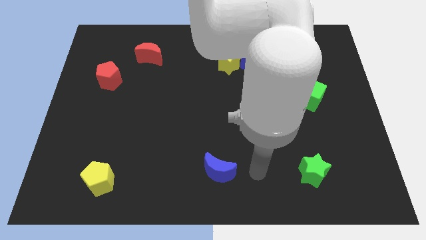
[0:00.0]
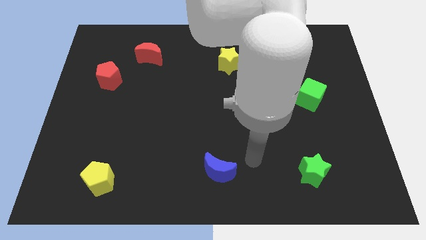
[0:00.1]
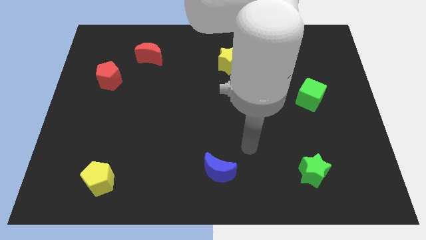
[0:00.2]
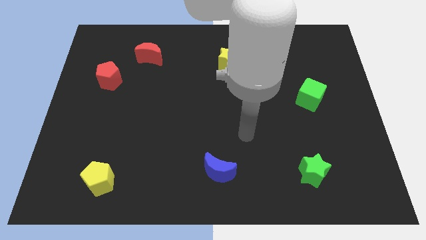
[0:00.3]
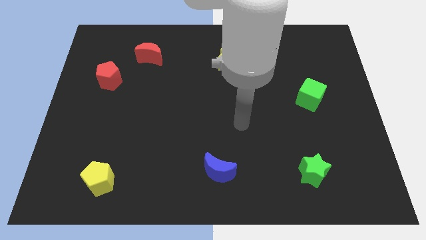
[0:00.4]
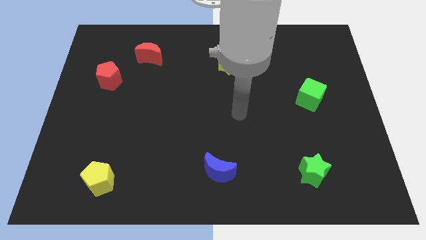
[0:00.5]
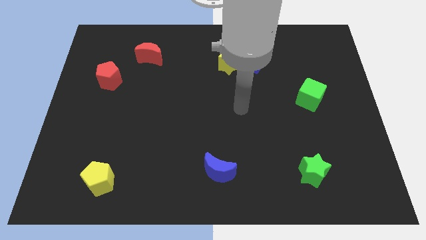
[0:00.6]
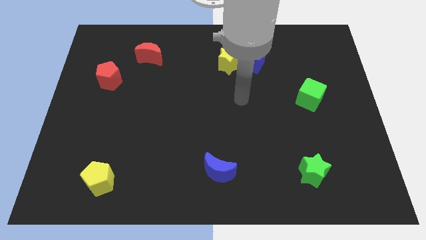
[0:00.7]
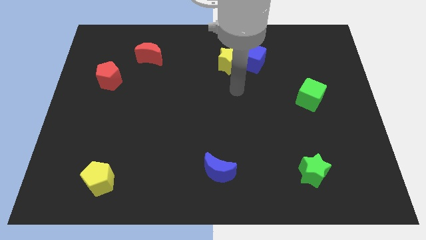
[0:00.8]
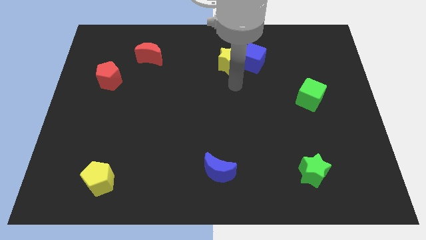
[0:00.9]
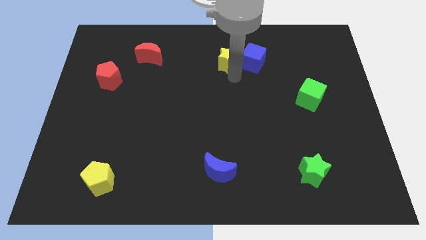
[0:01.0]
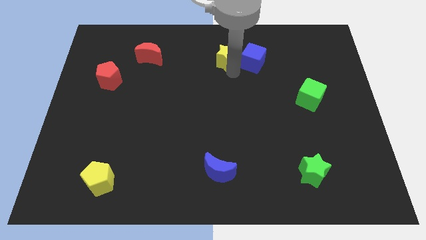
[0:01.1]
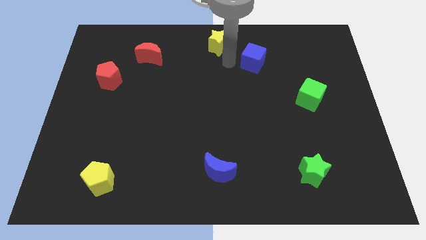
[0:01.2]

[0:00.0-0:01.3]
separate the blue cube from the yellow star

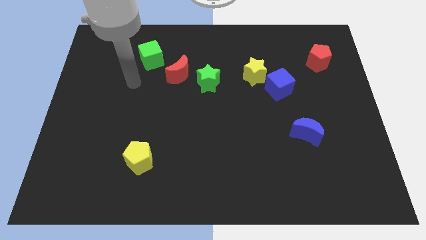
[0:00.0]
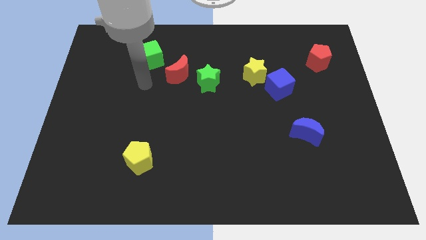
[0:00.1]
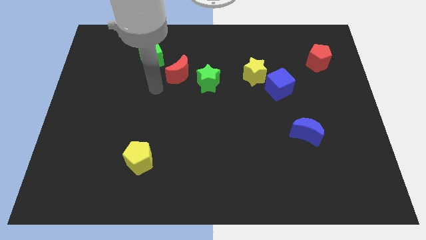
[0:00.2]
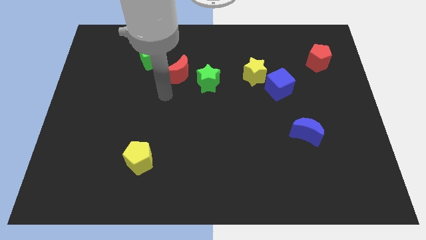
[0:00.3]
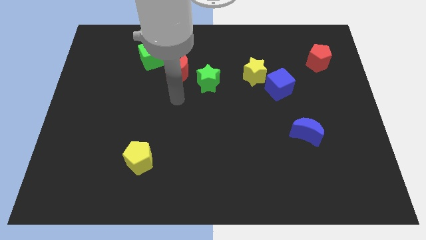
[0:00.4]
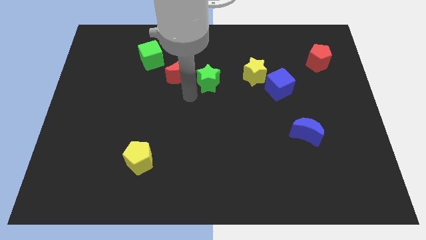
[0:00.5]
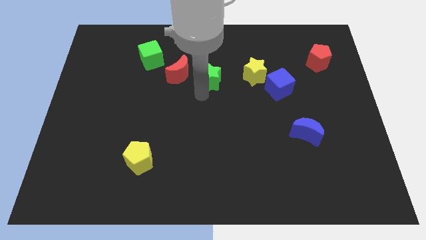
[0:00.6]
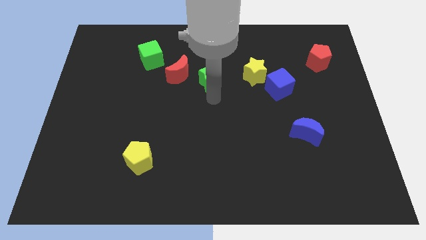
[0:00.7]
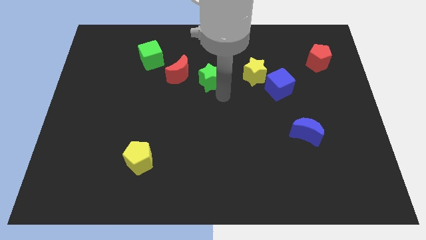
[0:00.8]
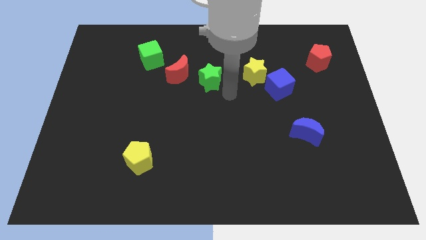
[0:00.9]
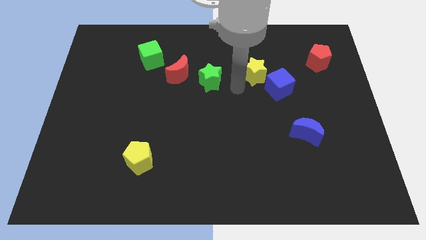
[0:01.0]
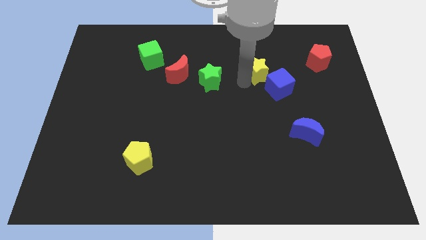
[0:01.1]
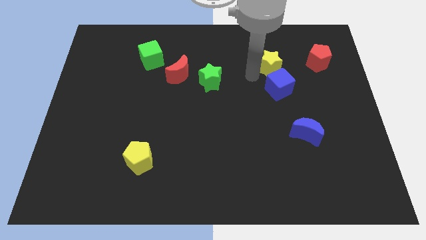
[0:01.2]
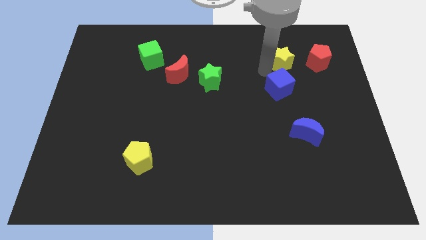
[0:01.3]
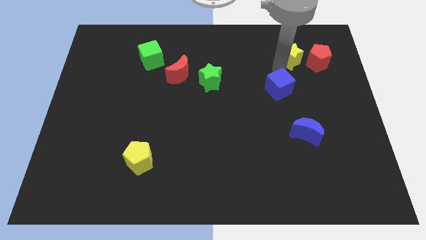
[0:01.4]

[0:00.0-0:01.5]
pull the blue cube apart from the yellow star

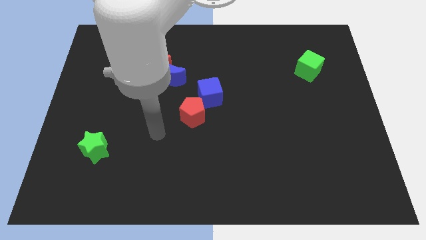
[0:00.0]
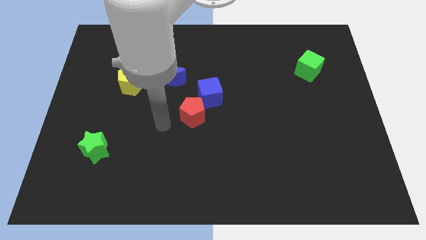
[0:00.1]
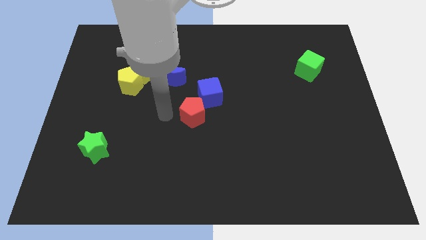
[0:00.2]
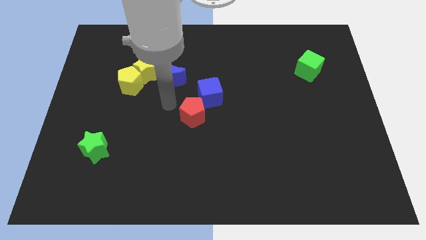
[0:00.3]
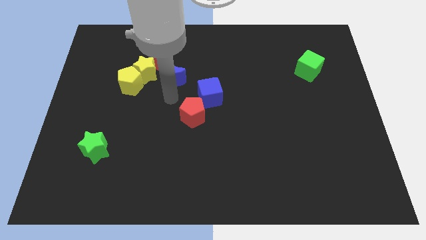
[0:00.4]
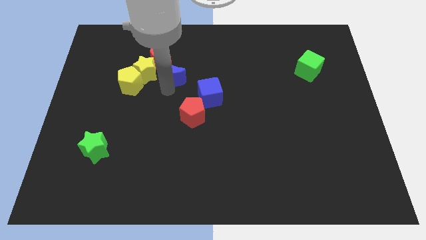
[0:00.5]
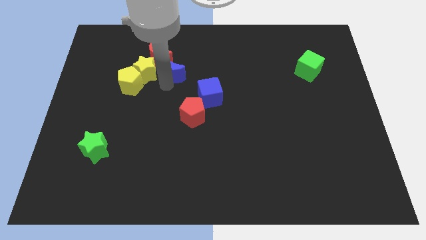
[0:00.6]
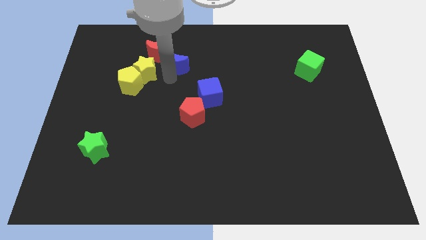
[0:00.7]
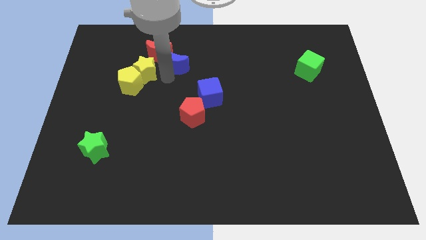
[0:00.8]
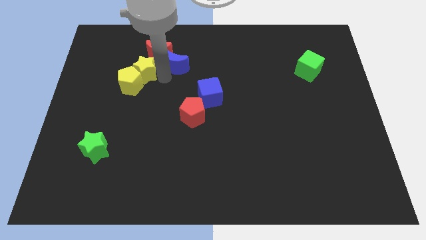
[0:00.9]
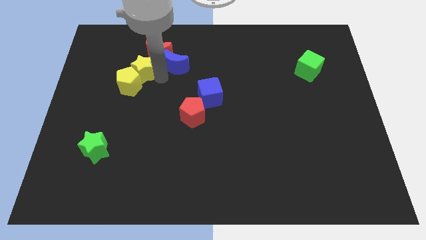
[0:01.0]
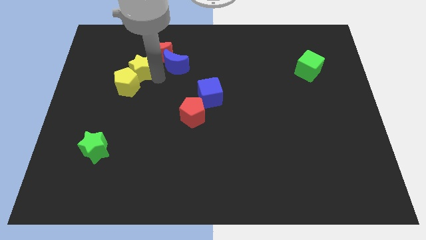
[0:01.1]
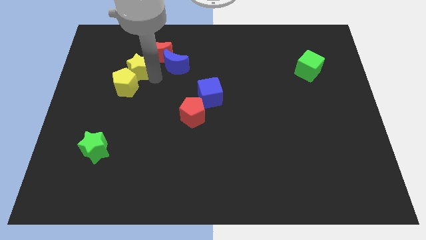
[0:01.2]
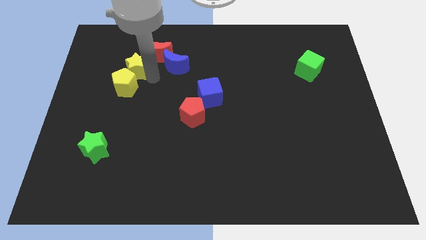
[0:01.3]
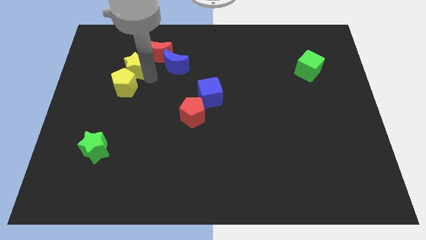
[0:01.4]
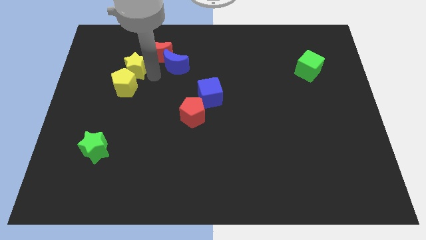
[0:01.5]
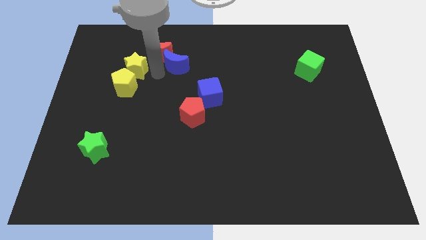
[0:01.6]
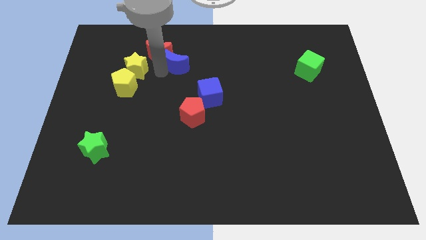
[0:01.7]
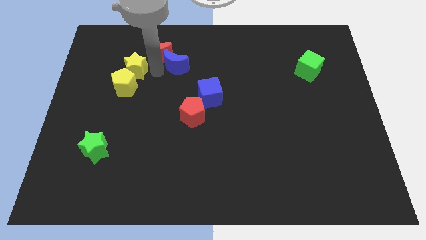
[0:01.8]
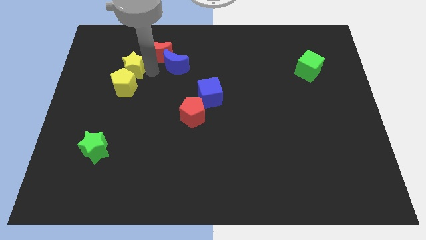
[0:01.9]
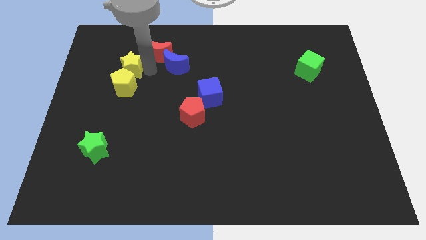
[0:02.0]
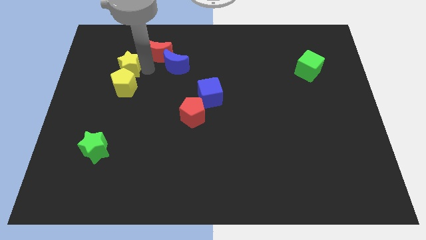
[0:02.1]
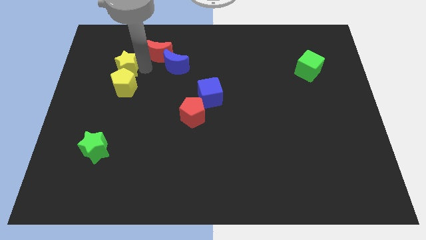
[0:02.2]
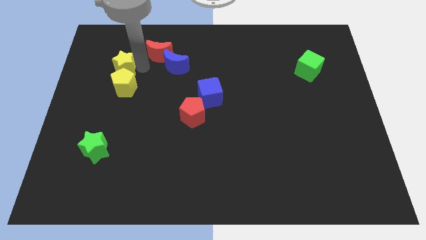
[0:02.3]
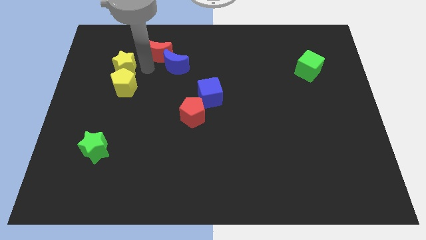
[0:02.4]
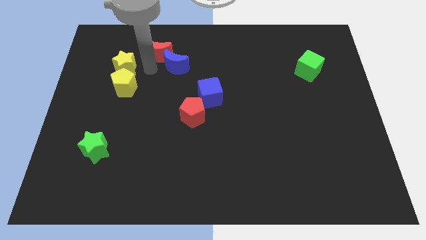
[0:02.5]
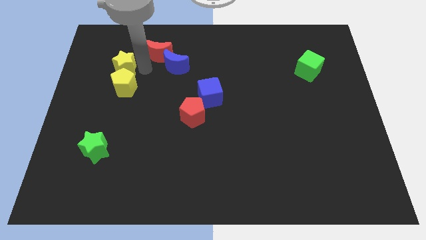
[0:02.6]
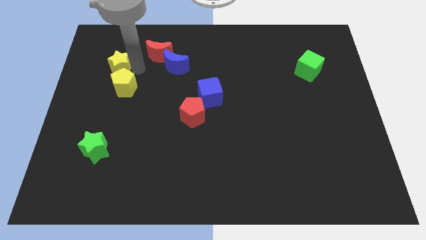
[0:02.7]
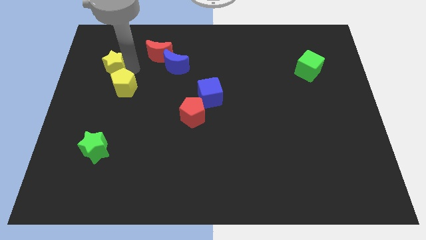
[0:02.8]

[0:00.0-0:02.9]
move the yellow star away from the group of blocks

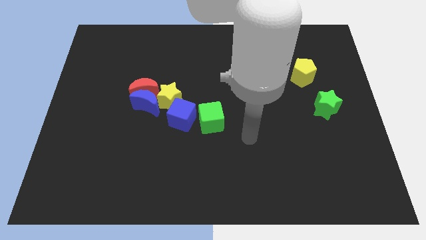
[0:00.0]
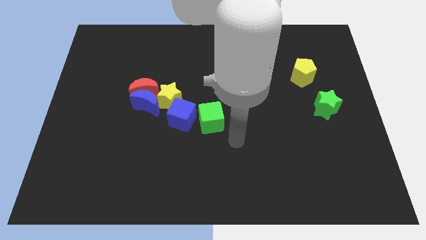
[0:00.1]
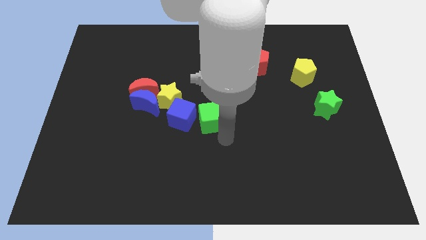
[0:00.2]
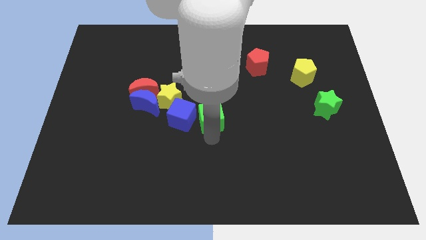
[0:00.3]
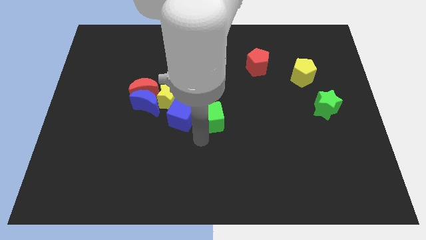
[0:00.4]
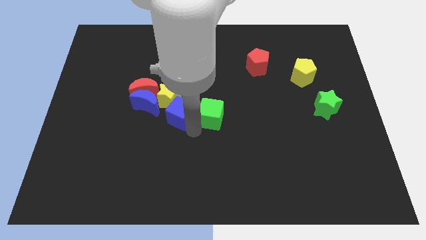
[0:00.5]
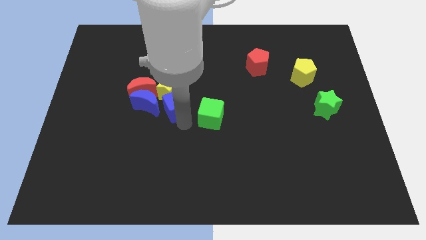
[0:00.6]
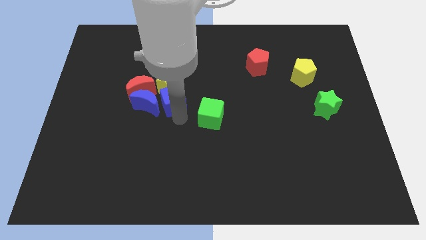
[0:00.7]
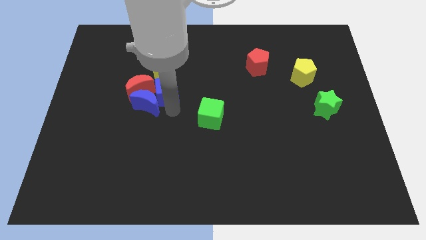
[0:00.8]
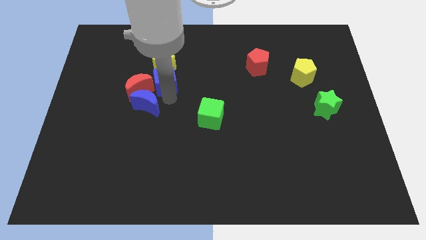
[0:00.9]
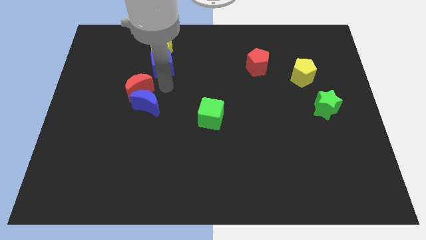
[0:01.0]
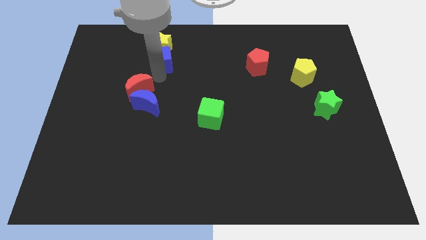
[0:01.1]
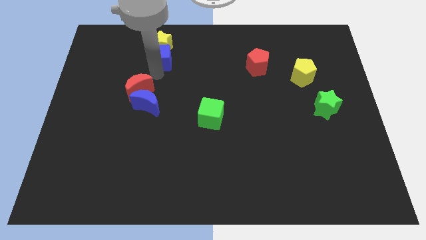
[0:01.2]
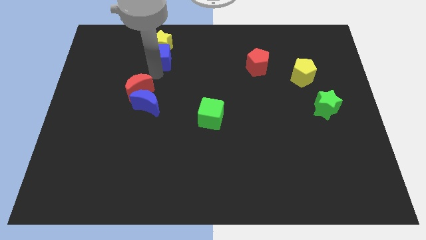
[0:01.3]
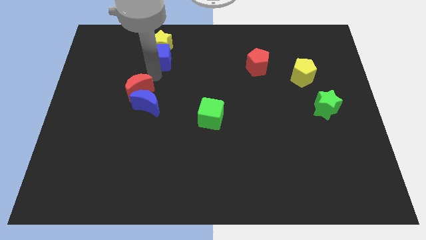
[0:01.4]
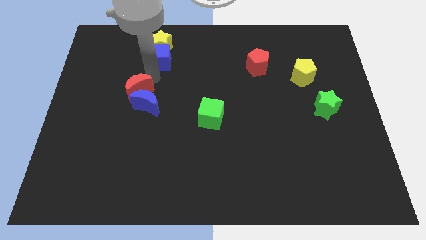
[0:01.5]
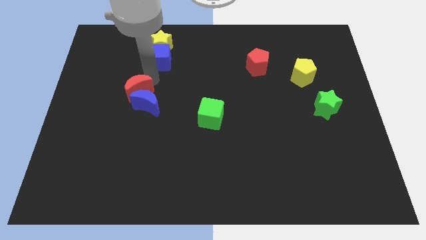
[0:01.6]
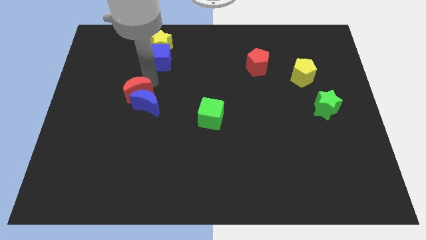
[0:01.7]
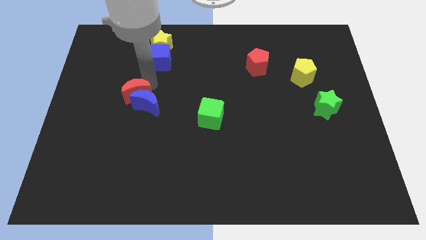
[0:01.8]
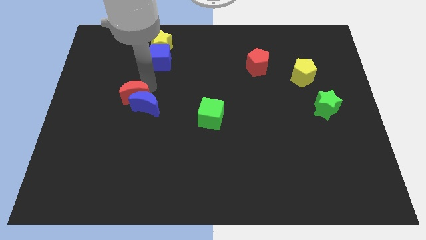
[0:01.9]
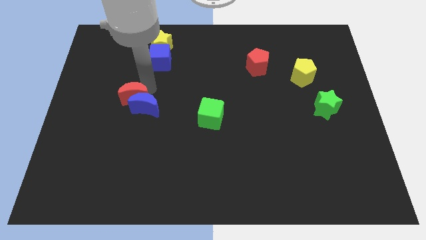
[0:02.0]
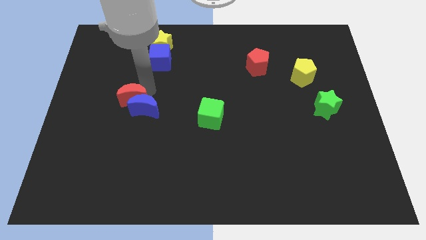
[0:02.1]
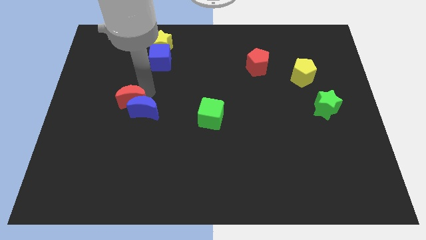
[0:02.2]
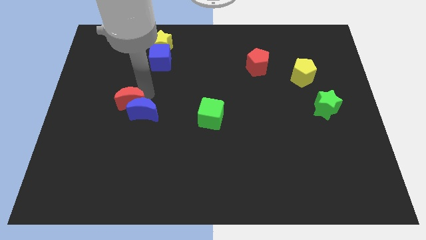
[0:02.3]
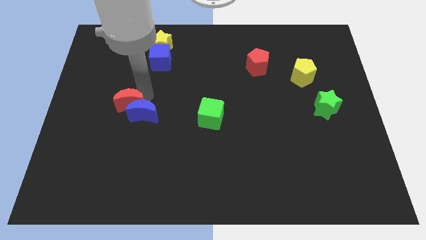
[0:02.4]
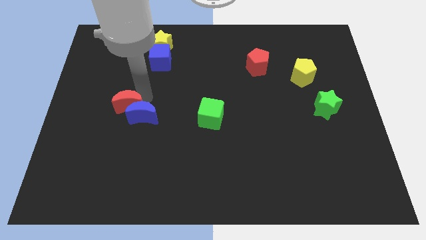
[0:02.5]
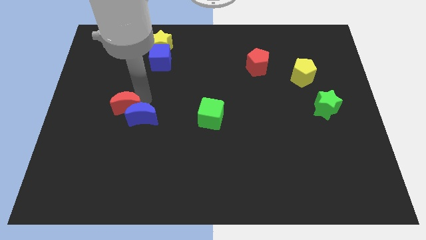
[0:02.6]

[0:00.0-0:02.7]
pull the red moon apart from the blue moon and yellow star

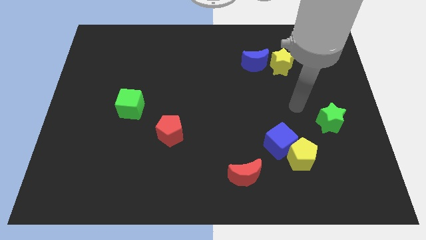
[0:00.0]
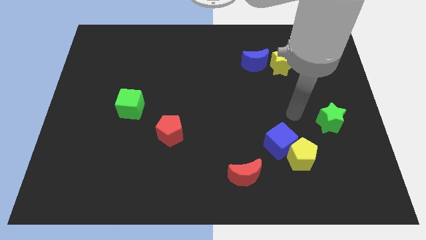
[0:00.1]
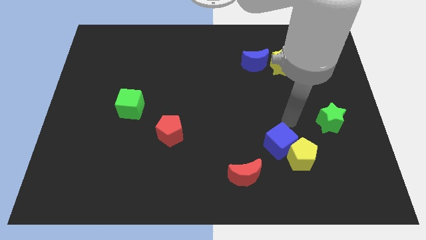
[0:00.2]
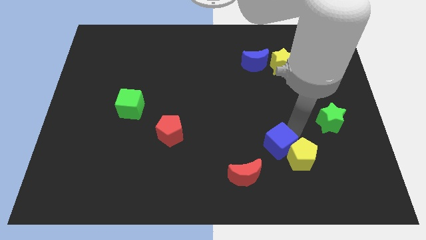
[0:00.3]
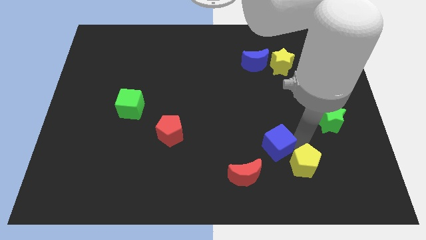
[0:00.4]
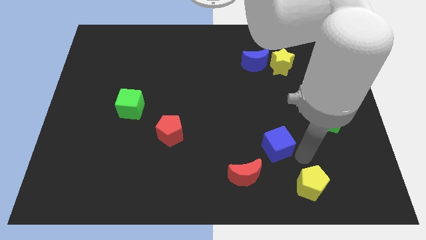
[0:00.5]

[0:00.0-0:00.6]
separate the blue cube from the yellow pentagon

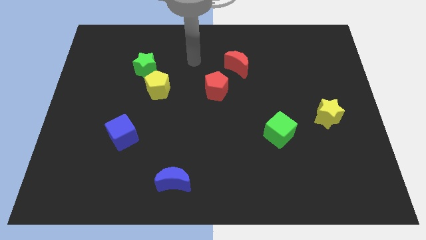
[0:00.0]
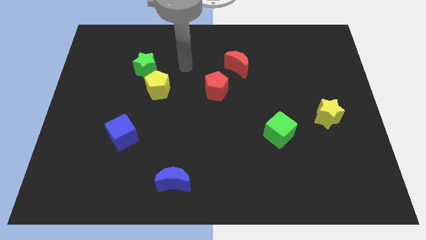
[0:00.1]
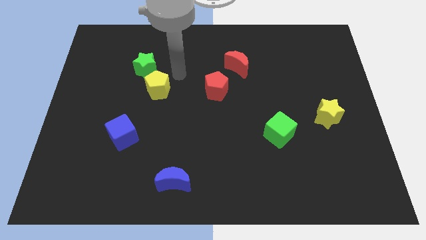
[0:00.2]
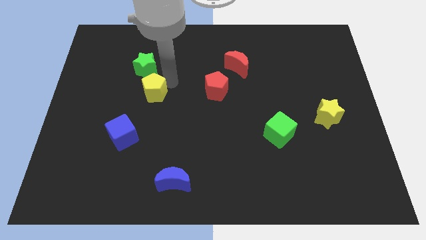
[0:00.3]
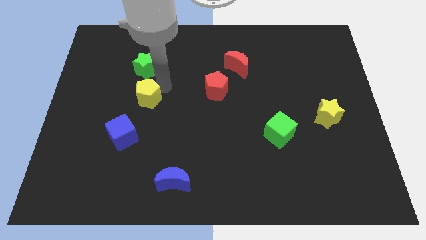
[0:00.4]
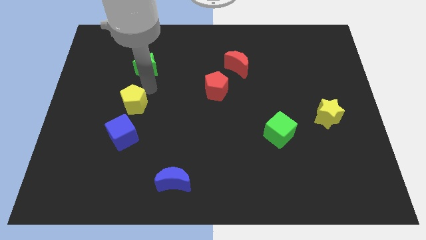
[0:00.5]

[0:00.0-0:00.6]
pull the green star apart from the yellow pentagon
